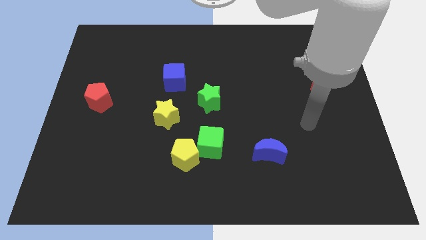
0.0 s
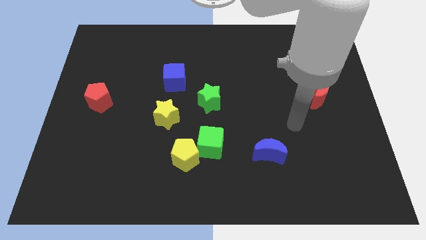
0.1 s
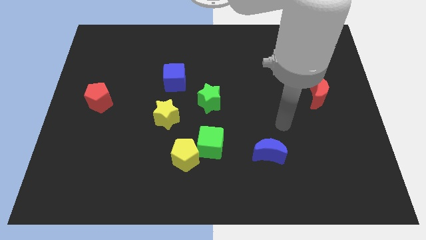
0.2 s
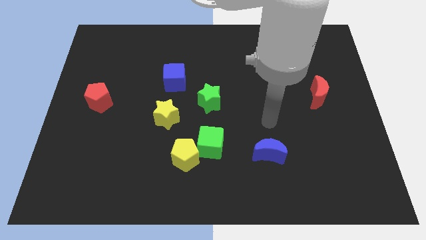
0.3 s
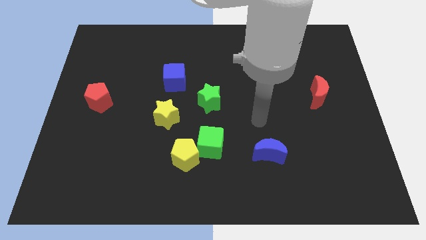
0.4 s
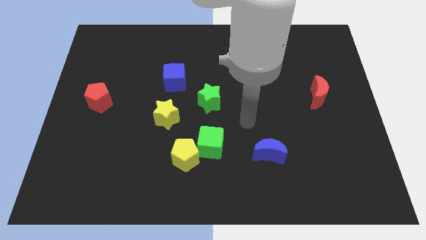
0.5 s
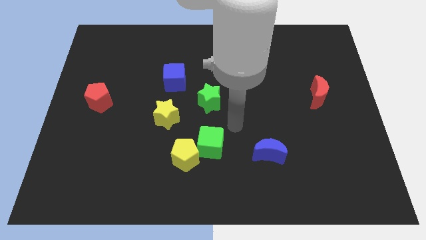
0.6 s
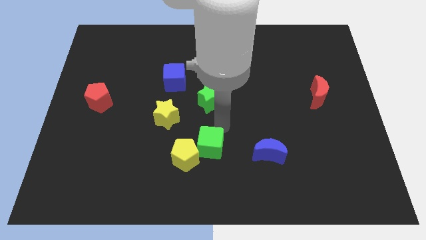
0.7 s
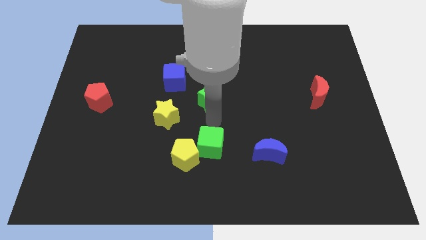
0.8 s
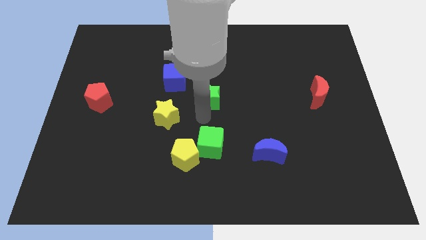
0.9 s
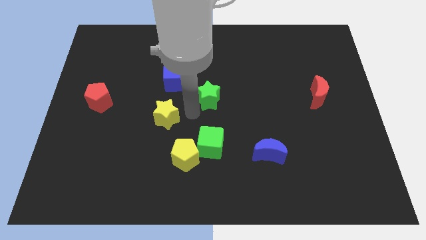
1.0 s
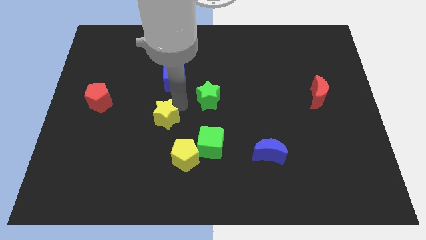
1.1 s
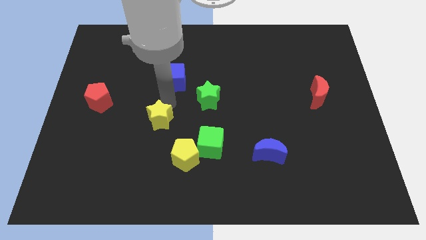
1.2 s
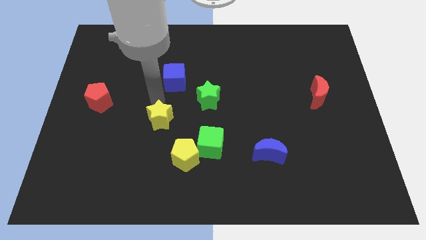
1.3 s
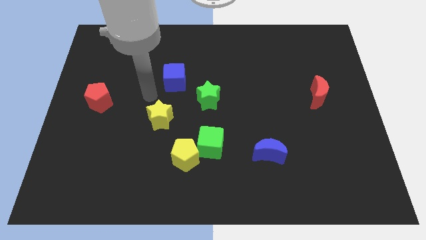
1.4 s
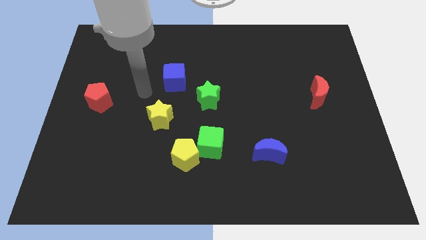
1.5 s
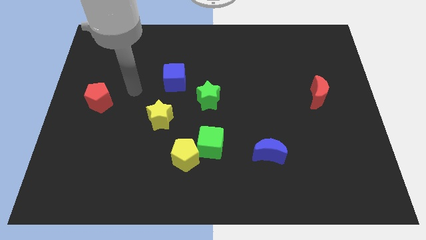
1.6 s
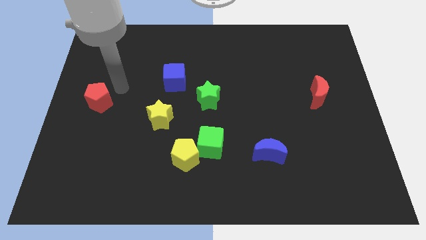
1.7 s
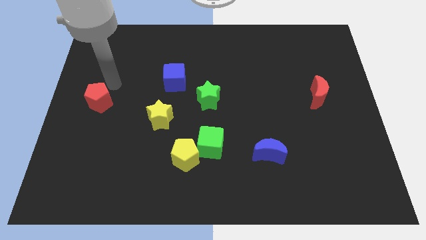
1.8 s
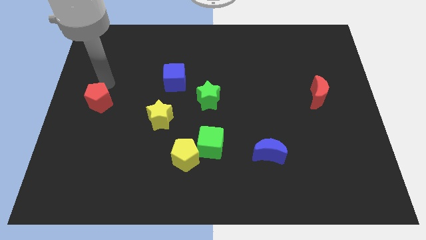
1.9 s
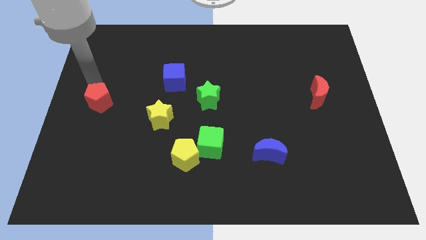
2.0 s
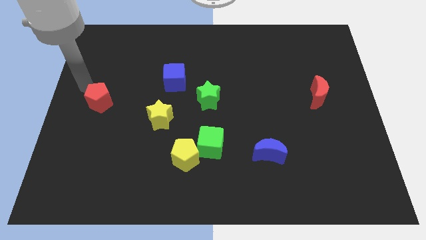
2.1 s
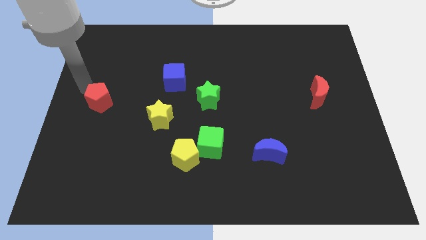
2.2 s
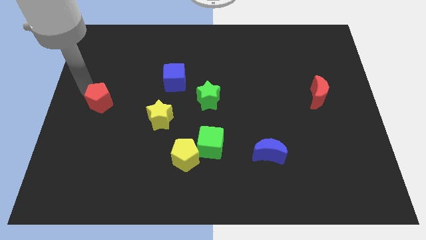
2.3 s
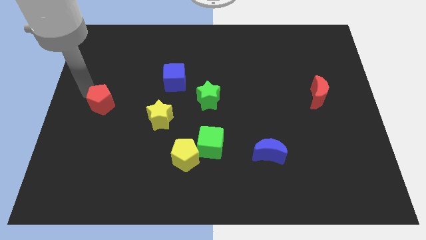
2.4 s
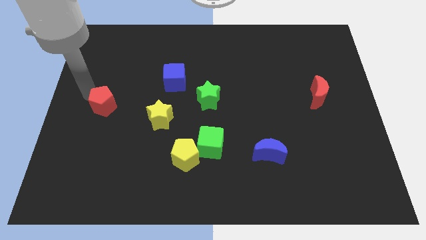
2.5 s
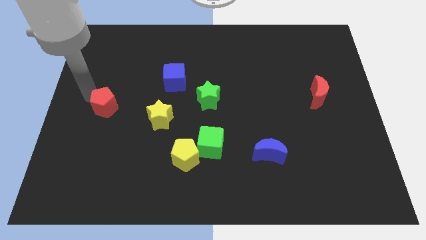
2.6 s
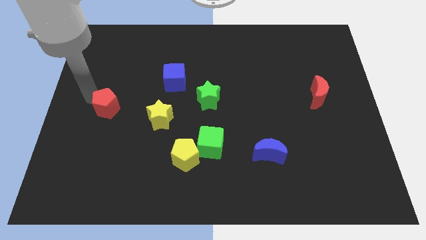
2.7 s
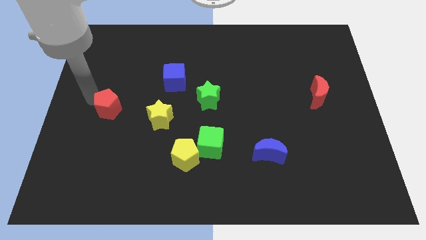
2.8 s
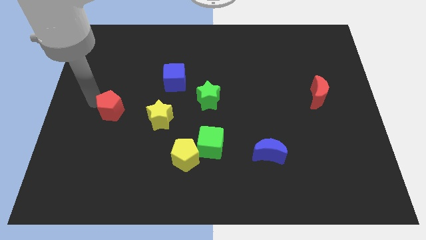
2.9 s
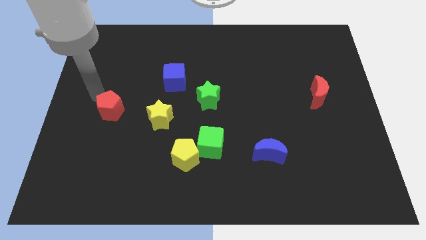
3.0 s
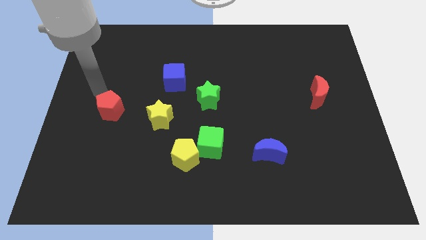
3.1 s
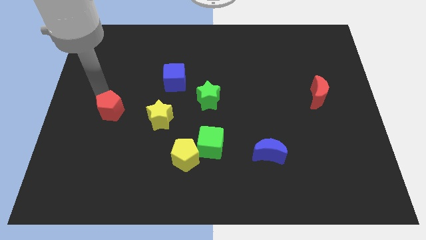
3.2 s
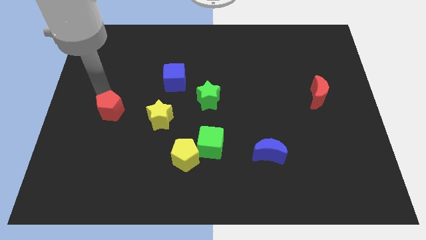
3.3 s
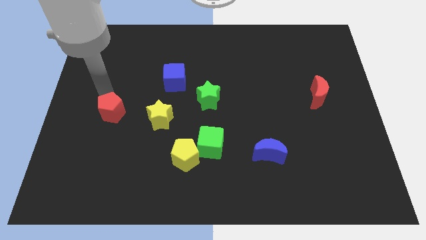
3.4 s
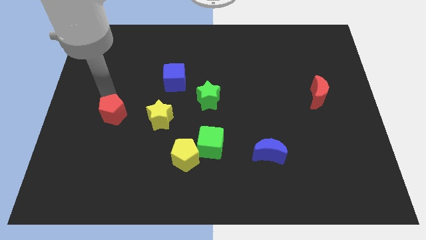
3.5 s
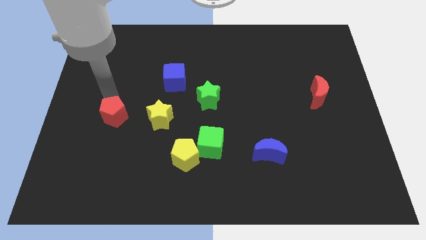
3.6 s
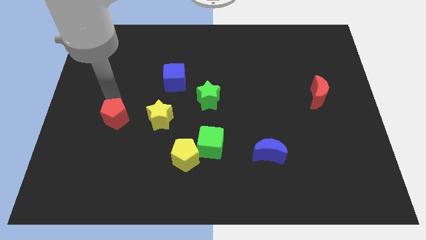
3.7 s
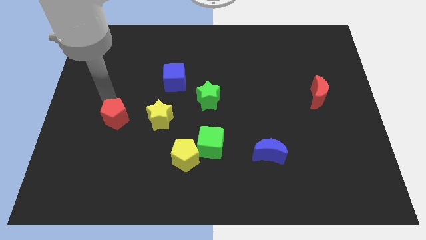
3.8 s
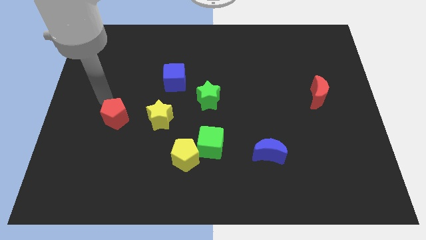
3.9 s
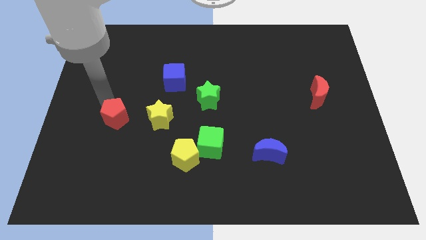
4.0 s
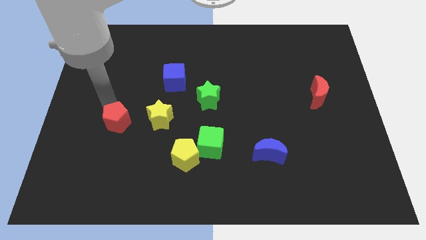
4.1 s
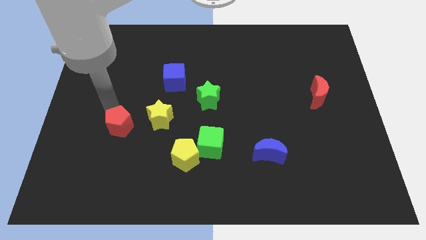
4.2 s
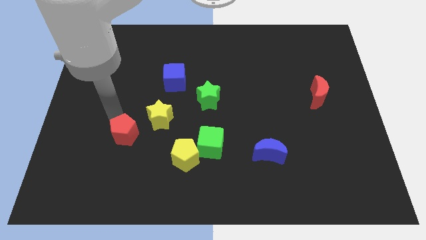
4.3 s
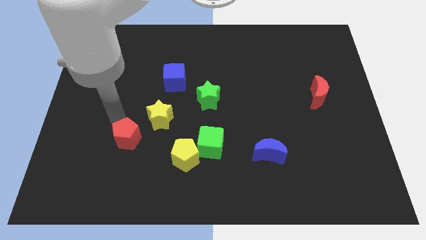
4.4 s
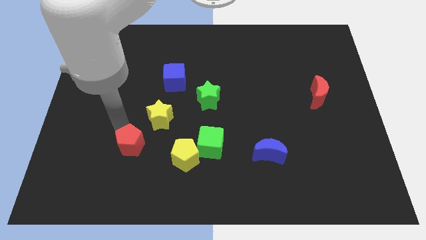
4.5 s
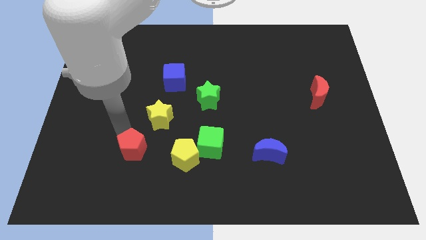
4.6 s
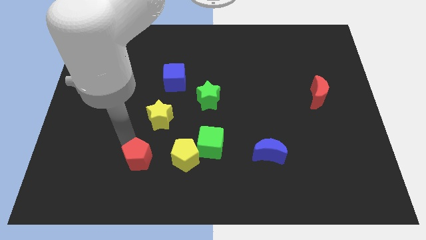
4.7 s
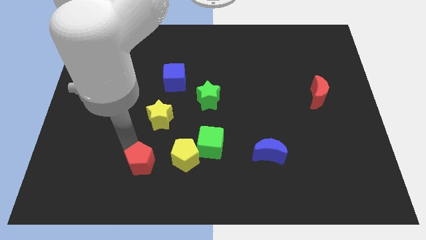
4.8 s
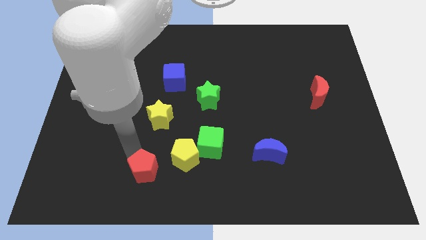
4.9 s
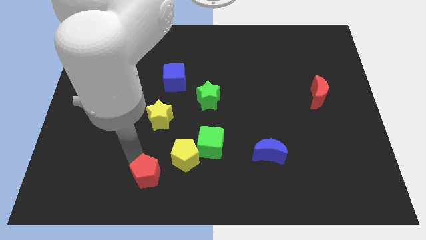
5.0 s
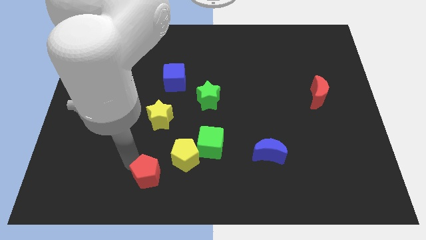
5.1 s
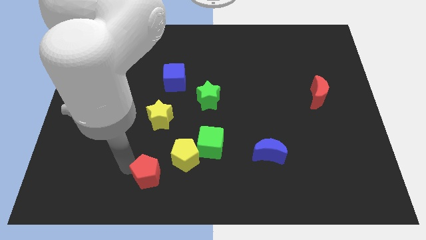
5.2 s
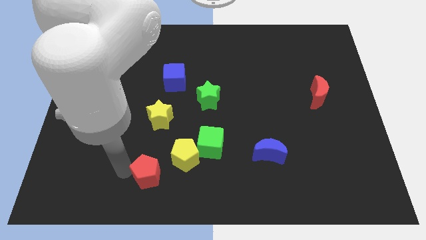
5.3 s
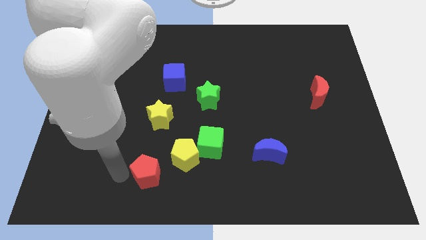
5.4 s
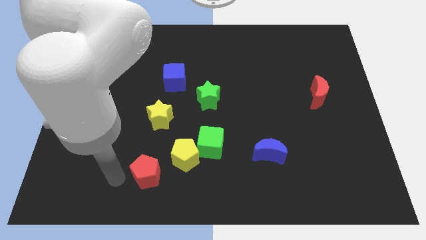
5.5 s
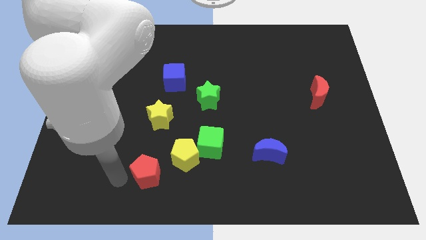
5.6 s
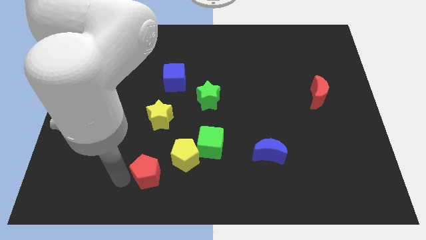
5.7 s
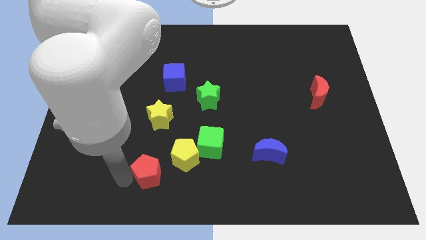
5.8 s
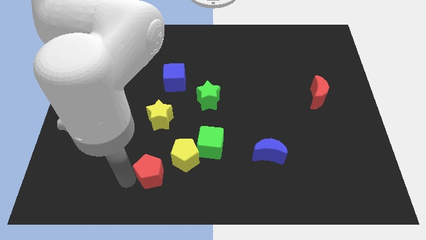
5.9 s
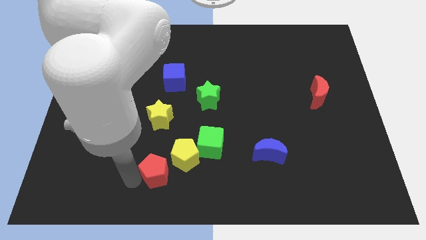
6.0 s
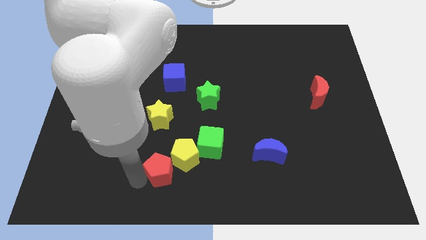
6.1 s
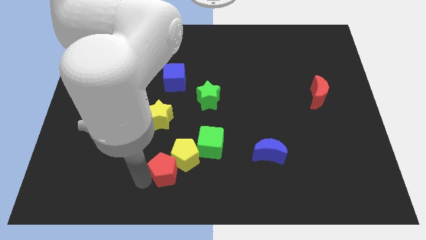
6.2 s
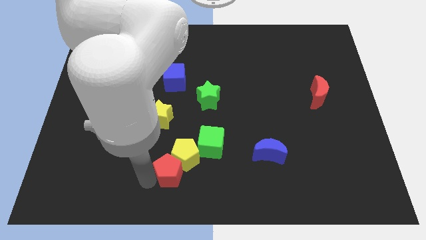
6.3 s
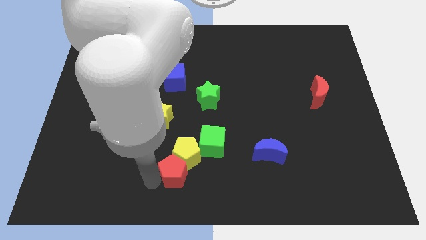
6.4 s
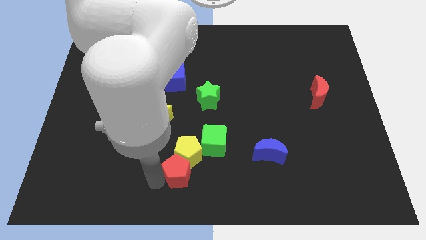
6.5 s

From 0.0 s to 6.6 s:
move the red pentagon to the bottom right side of the yellow pentagon
